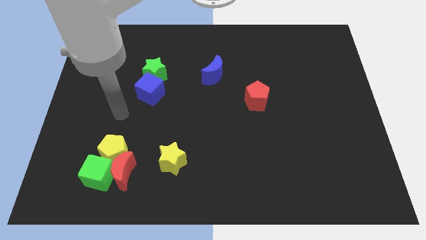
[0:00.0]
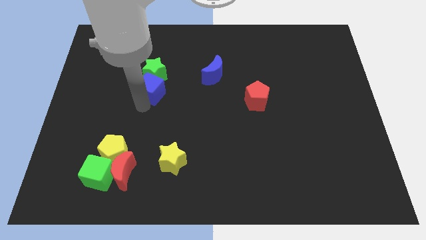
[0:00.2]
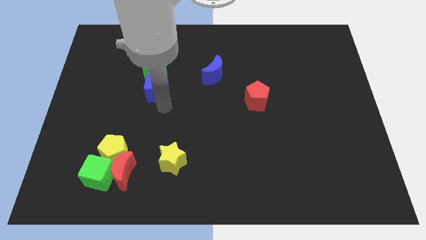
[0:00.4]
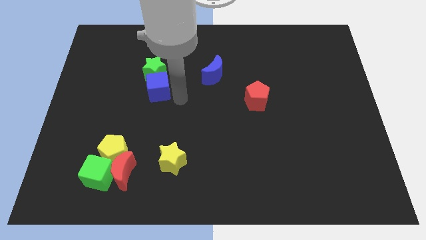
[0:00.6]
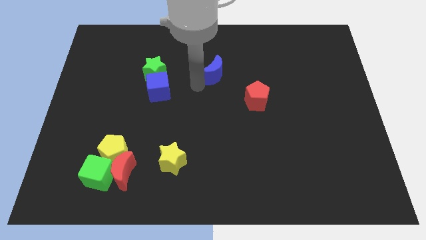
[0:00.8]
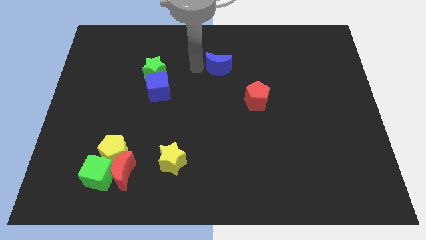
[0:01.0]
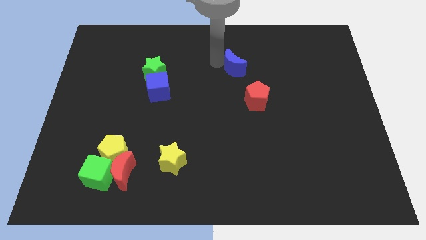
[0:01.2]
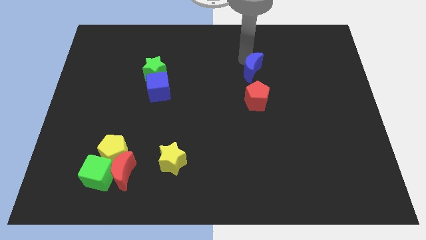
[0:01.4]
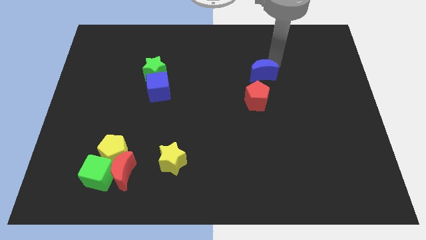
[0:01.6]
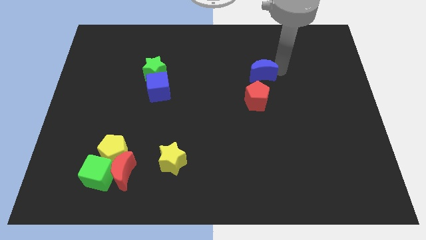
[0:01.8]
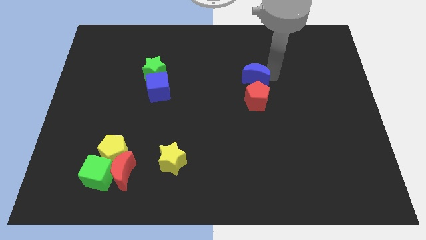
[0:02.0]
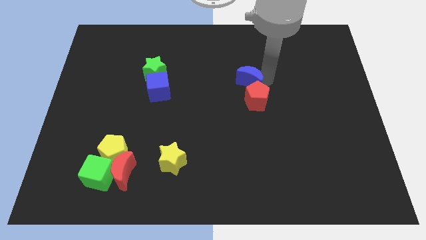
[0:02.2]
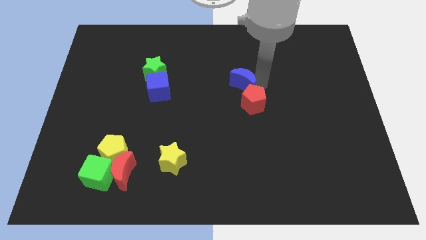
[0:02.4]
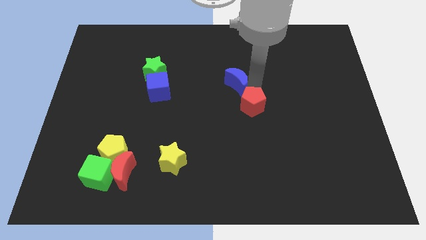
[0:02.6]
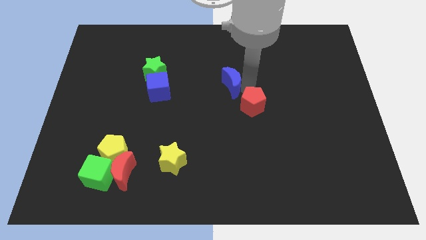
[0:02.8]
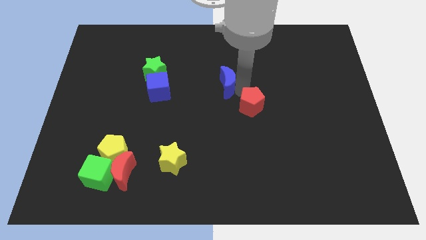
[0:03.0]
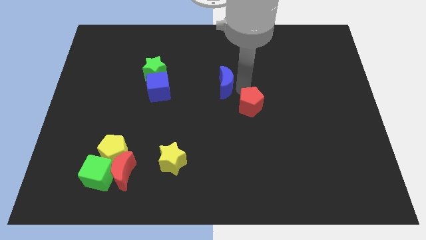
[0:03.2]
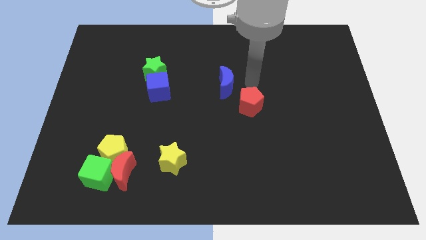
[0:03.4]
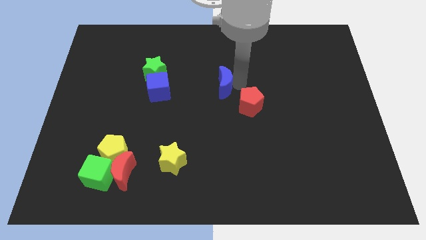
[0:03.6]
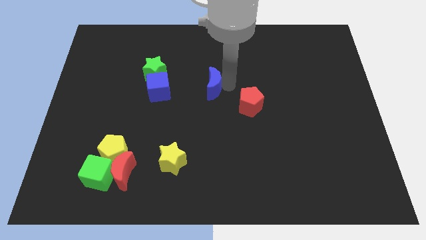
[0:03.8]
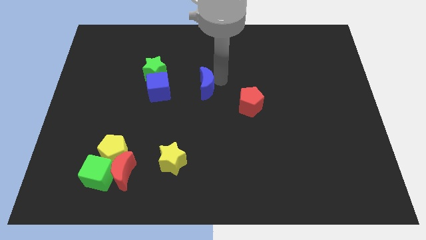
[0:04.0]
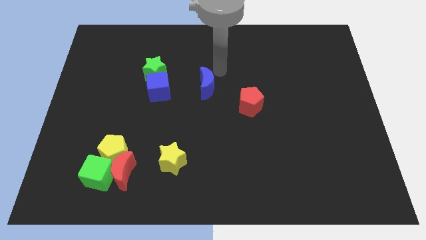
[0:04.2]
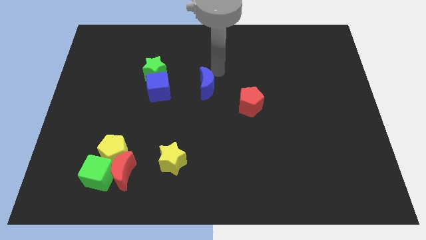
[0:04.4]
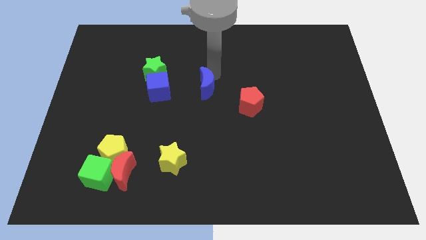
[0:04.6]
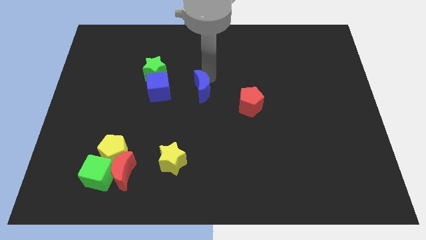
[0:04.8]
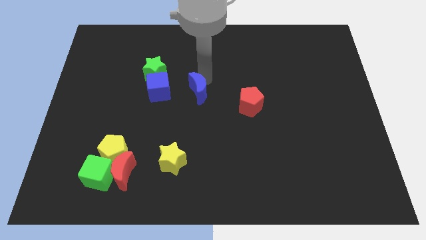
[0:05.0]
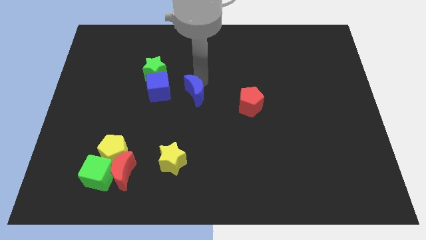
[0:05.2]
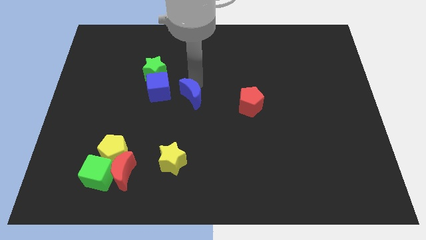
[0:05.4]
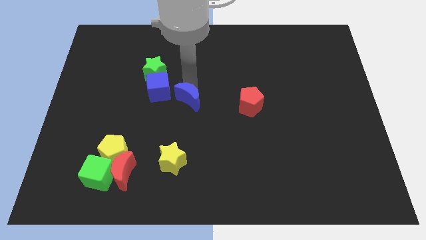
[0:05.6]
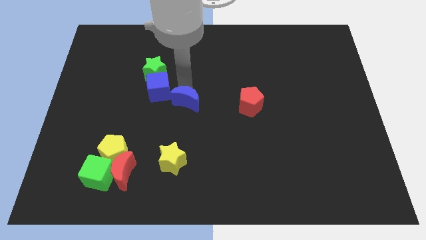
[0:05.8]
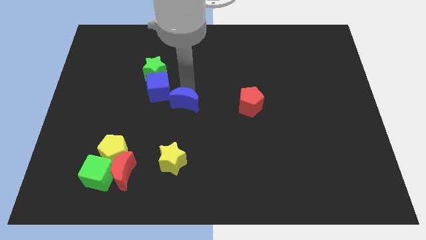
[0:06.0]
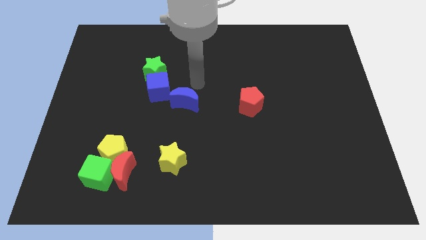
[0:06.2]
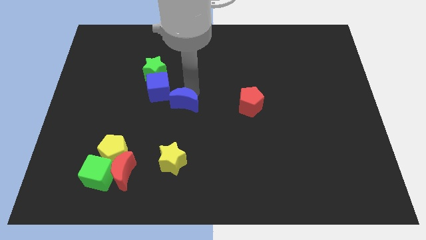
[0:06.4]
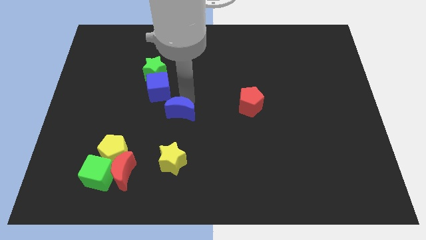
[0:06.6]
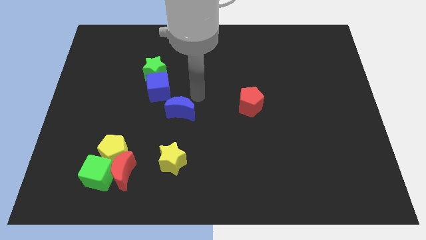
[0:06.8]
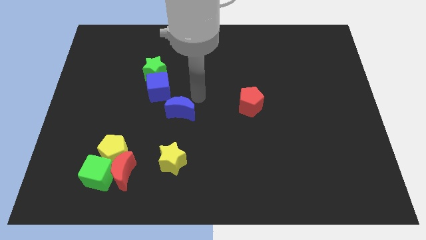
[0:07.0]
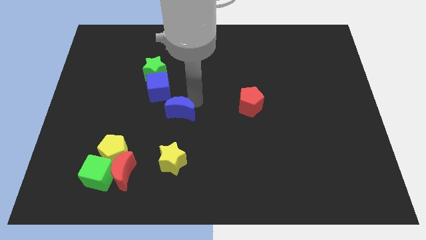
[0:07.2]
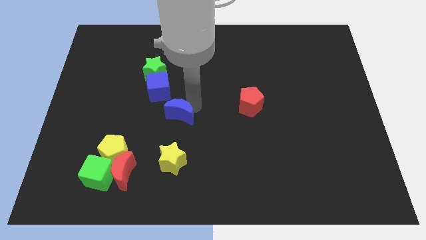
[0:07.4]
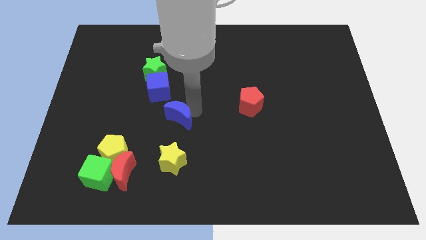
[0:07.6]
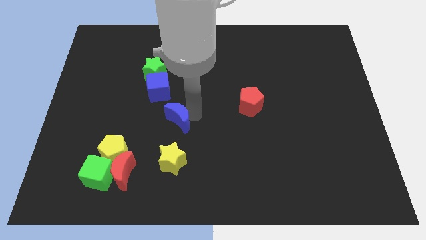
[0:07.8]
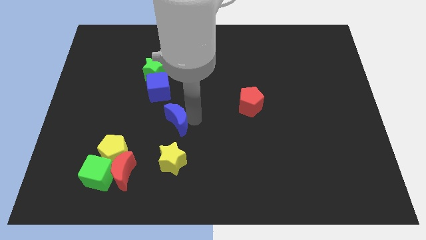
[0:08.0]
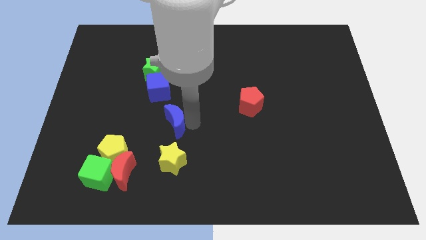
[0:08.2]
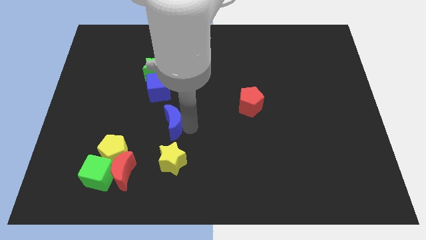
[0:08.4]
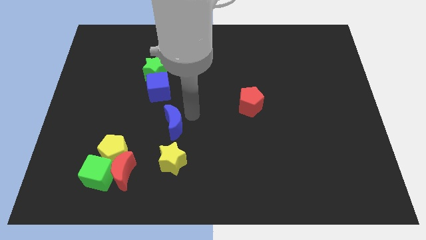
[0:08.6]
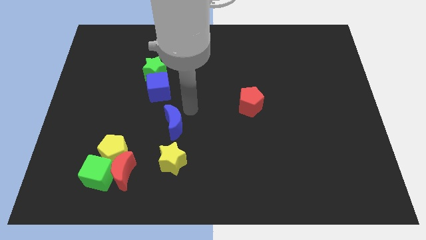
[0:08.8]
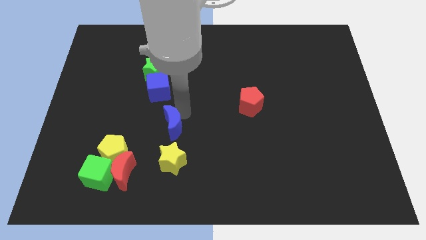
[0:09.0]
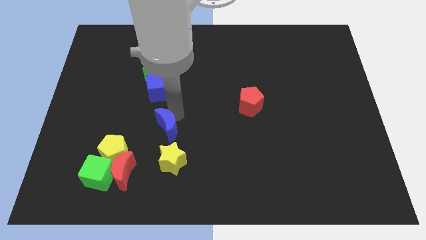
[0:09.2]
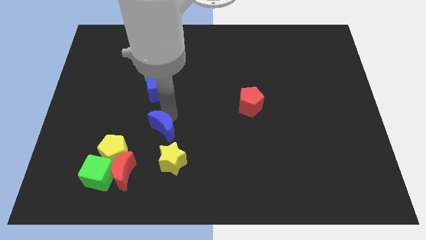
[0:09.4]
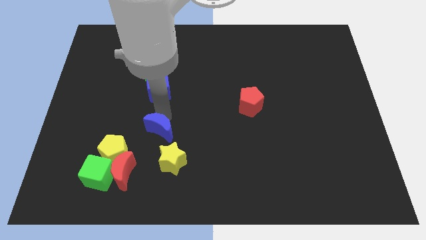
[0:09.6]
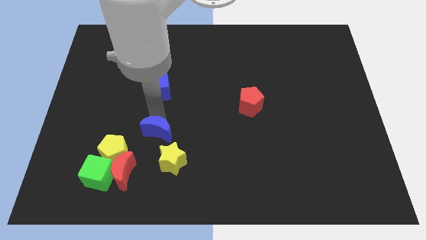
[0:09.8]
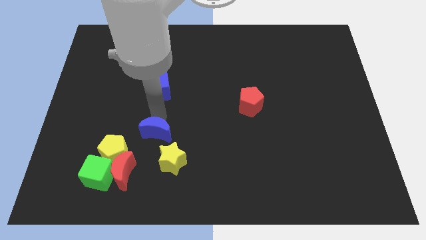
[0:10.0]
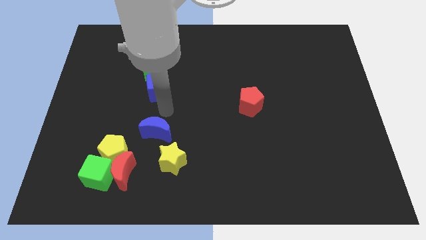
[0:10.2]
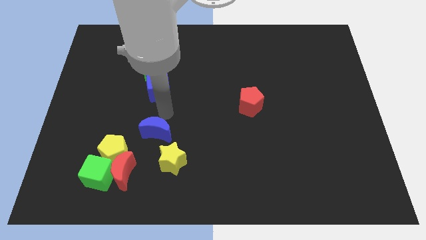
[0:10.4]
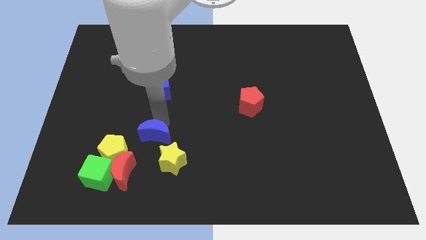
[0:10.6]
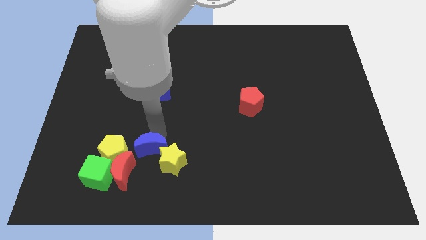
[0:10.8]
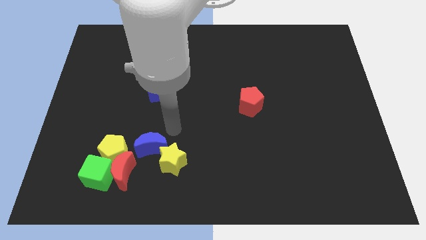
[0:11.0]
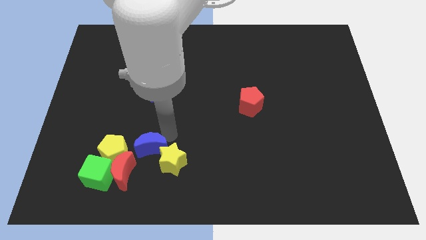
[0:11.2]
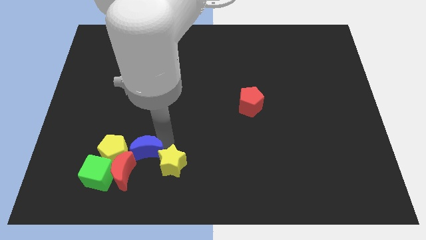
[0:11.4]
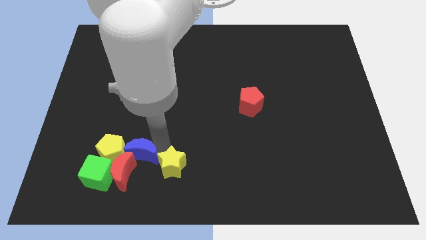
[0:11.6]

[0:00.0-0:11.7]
put the blue moon towards the red moon
